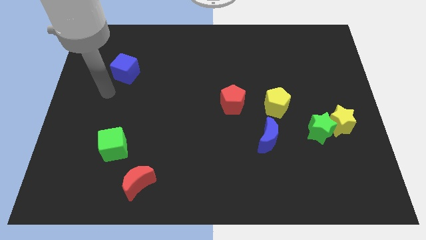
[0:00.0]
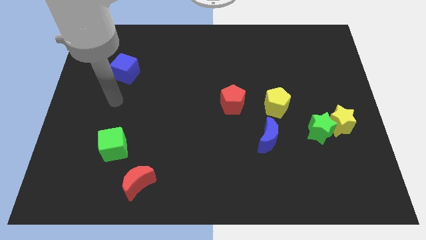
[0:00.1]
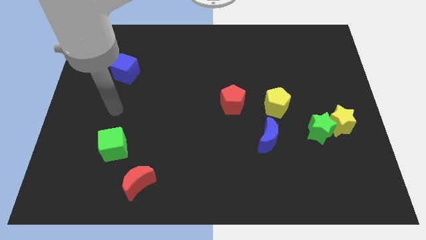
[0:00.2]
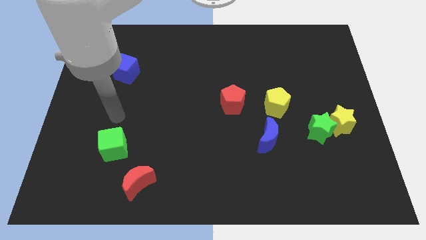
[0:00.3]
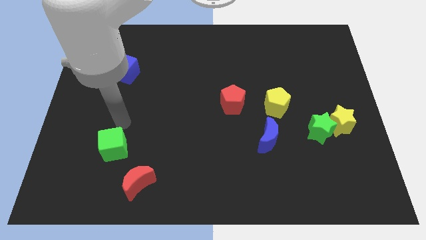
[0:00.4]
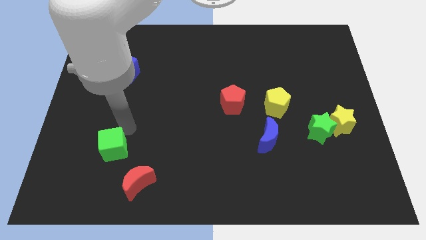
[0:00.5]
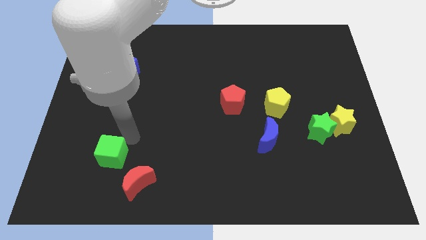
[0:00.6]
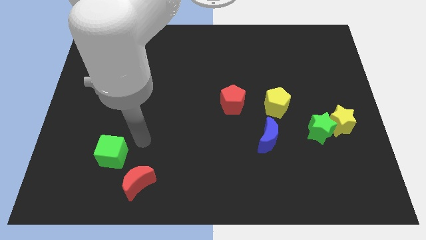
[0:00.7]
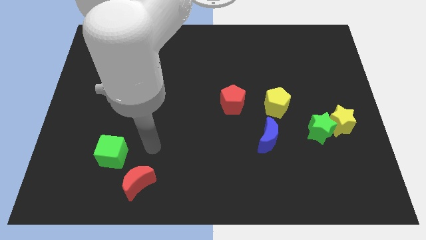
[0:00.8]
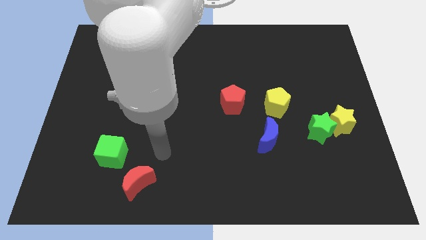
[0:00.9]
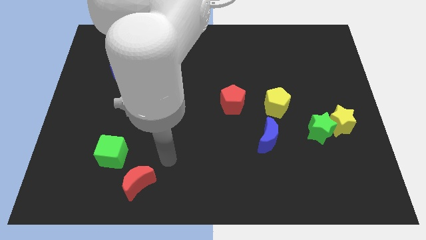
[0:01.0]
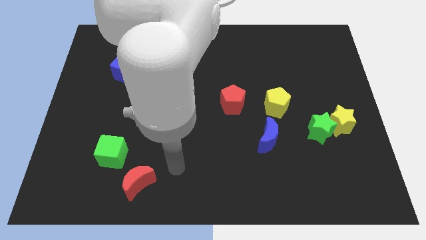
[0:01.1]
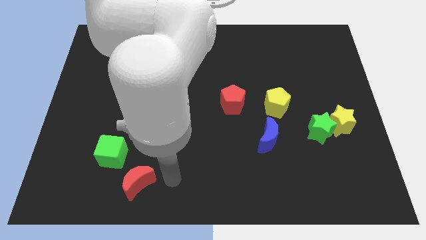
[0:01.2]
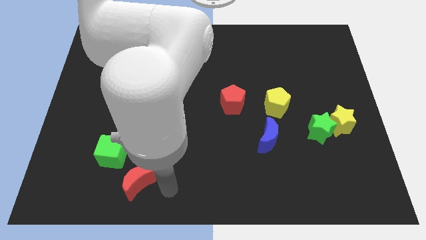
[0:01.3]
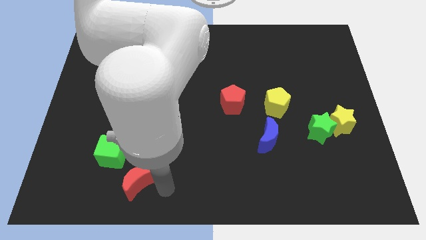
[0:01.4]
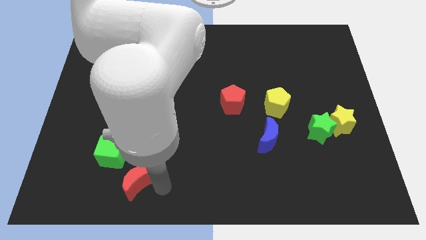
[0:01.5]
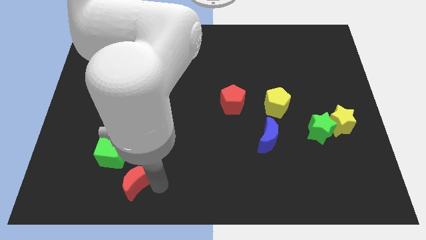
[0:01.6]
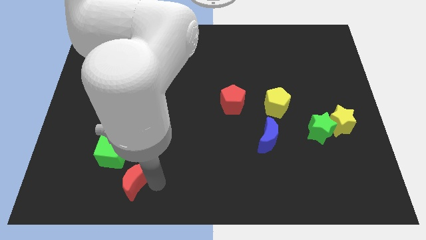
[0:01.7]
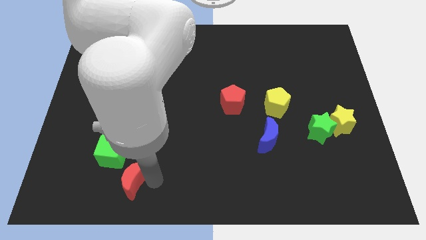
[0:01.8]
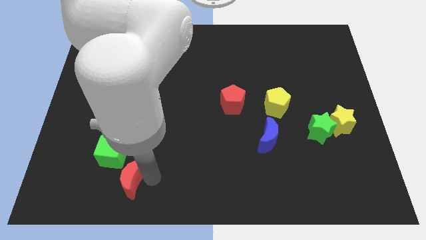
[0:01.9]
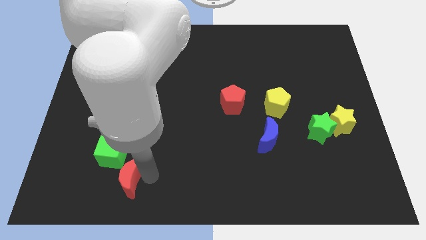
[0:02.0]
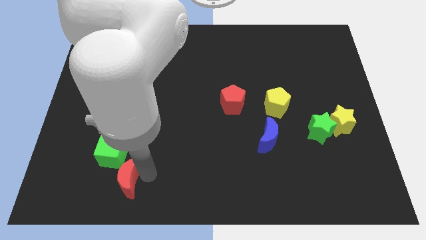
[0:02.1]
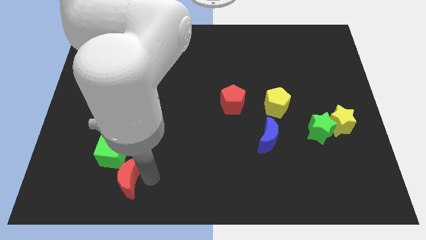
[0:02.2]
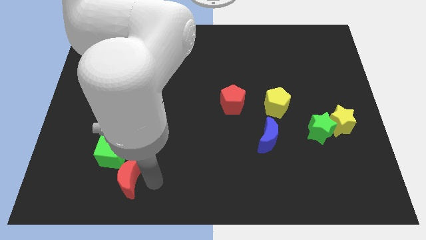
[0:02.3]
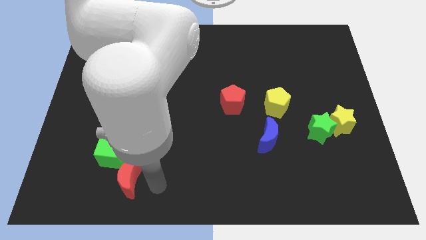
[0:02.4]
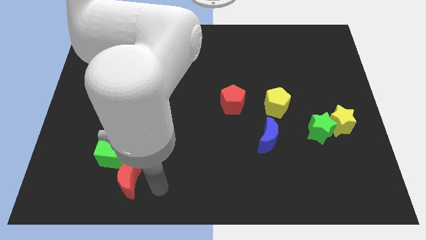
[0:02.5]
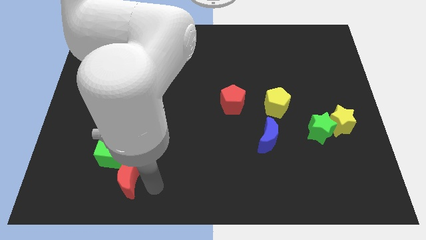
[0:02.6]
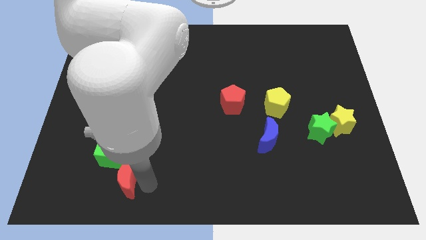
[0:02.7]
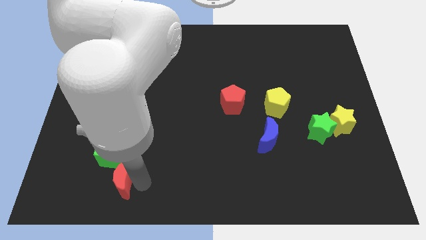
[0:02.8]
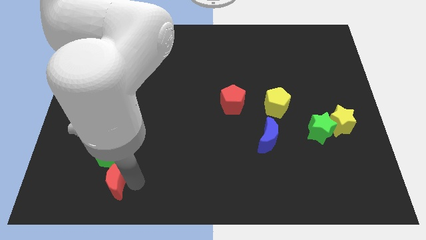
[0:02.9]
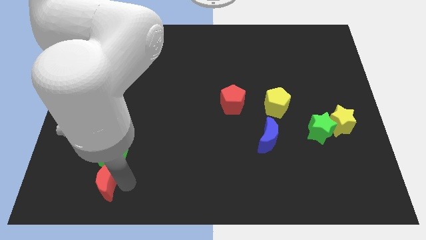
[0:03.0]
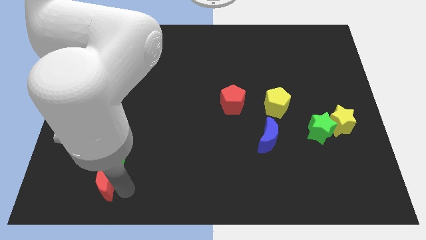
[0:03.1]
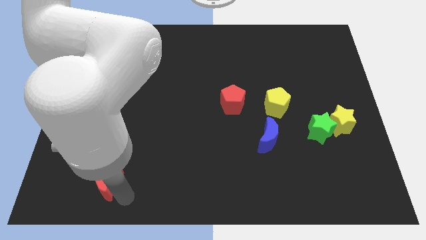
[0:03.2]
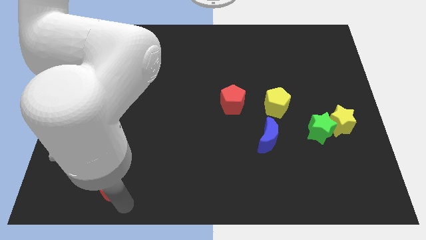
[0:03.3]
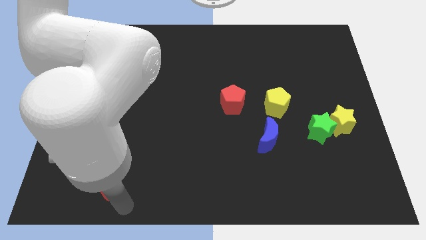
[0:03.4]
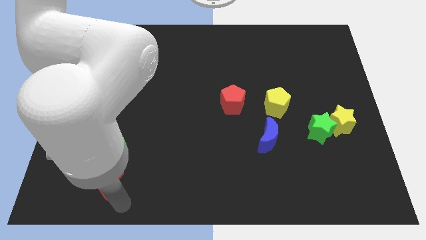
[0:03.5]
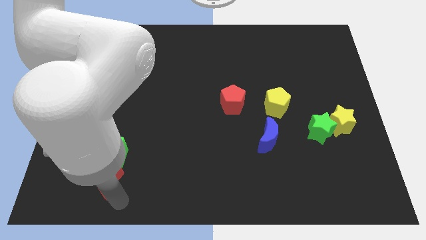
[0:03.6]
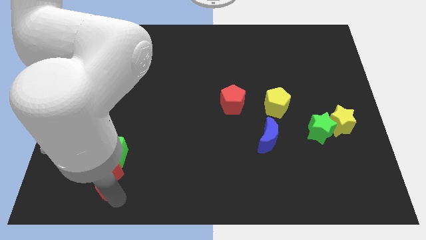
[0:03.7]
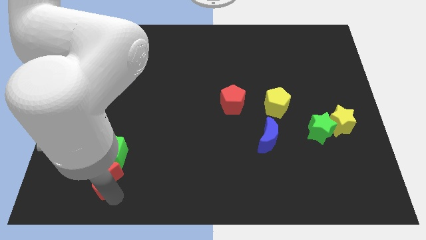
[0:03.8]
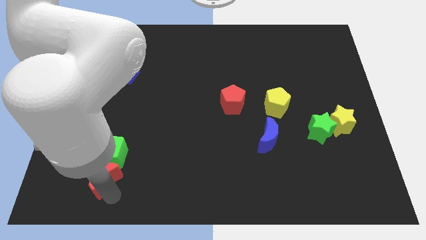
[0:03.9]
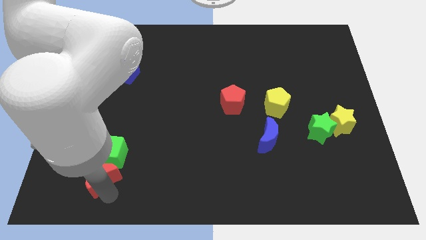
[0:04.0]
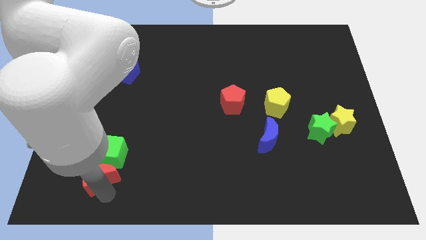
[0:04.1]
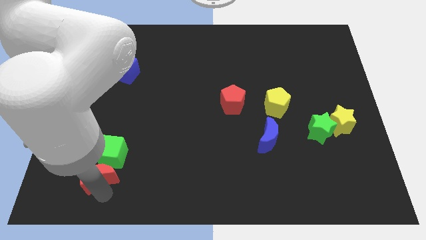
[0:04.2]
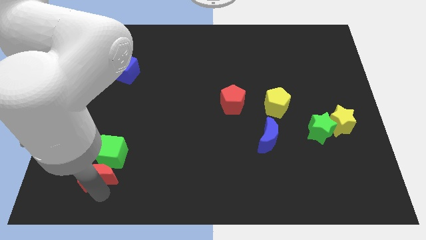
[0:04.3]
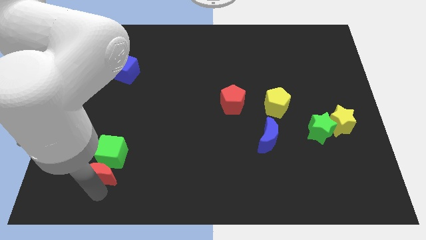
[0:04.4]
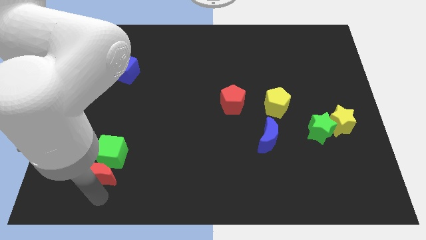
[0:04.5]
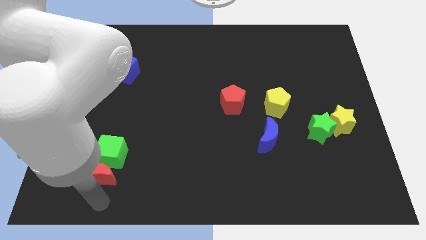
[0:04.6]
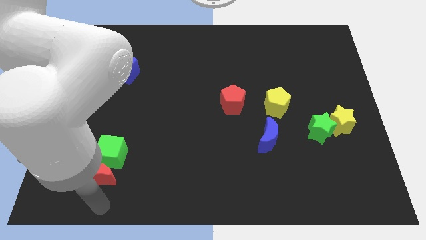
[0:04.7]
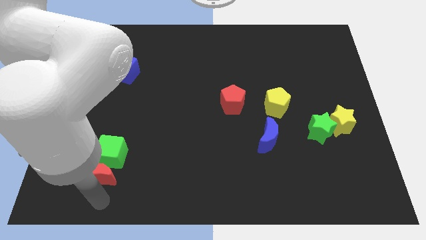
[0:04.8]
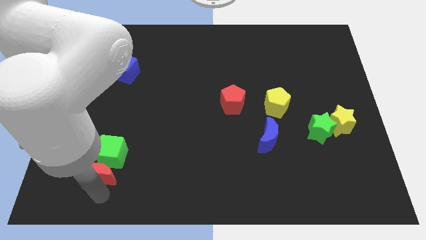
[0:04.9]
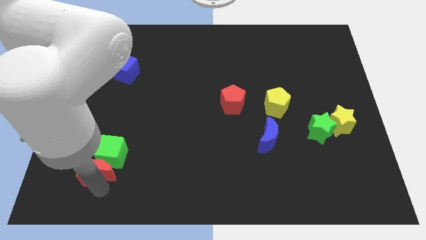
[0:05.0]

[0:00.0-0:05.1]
slightly push the red moon upwards and left

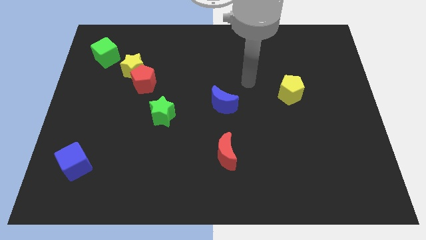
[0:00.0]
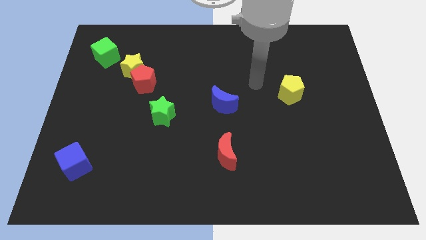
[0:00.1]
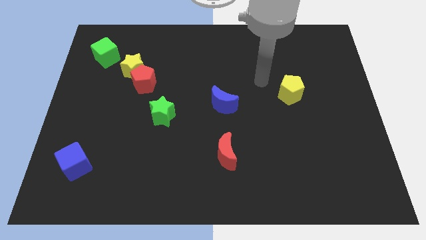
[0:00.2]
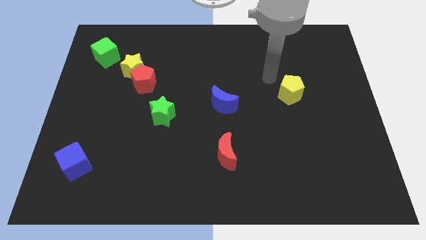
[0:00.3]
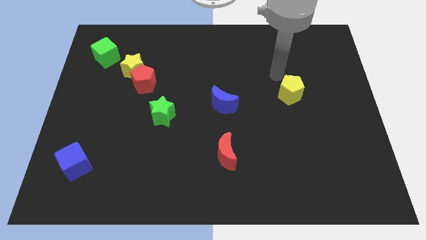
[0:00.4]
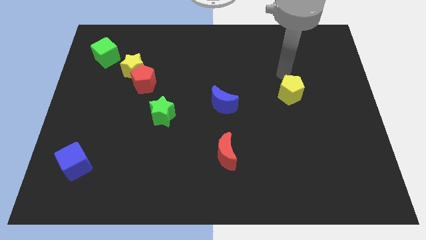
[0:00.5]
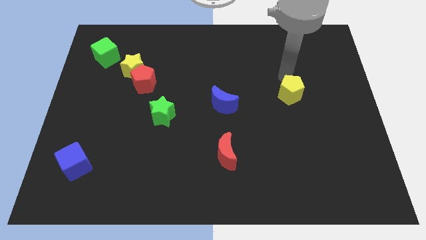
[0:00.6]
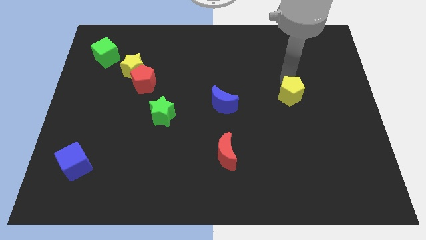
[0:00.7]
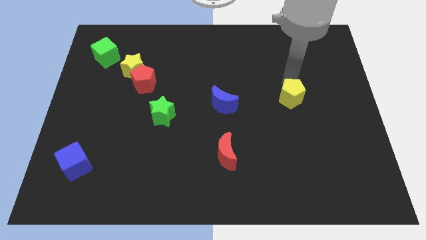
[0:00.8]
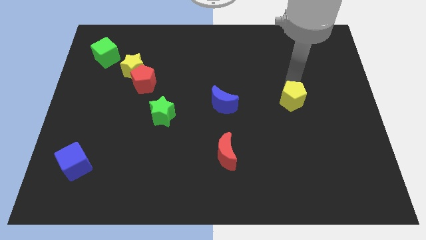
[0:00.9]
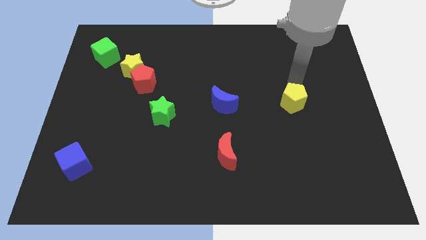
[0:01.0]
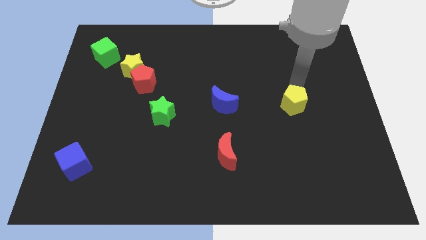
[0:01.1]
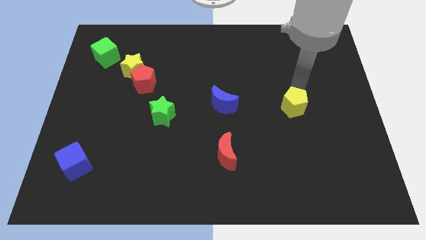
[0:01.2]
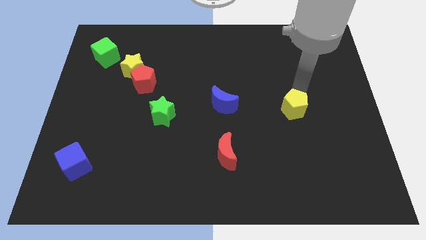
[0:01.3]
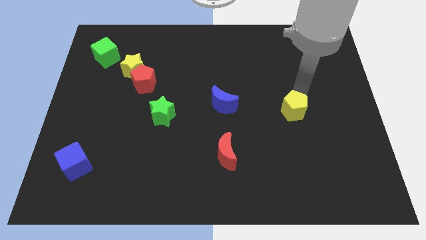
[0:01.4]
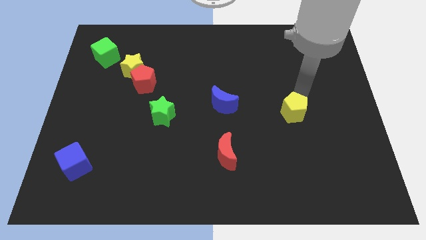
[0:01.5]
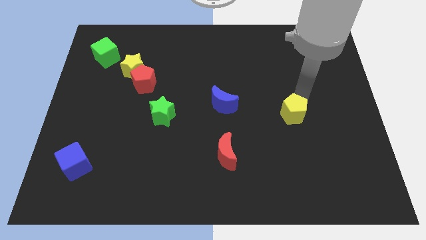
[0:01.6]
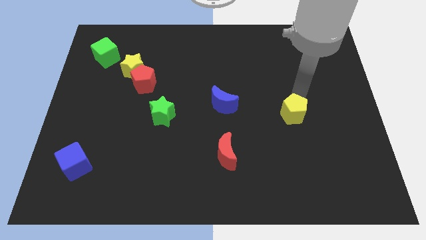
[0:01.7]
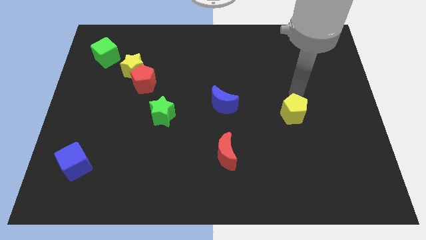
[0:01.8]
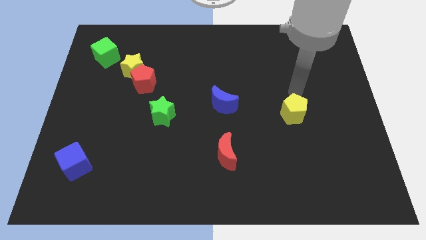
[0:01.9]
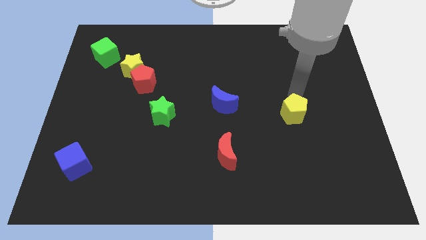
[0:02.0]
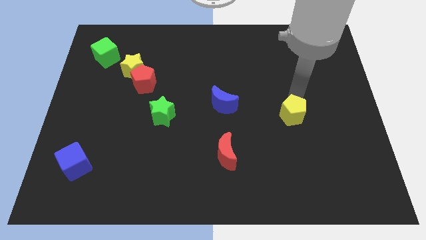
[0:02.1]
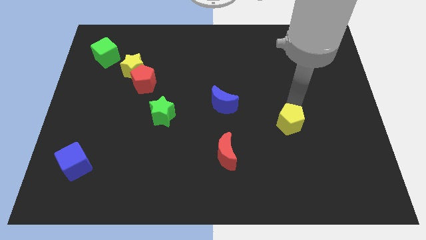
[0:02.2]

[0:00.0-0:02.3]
slide the yellow pentagon somewhat downwards

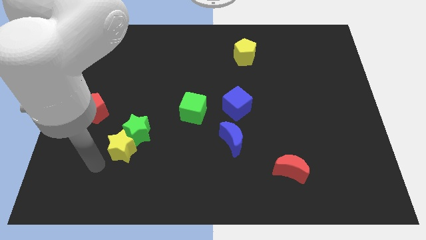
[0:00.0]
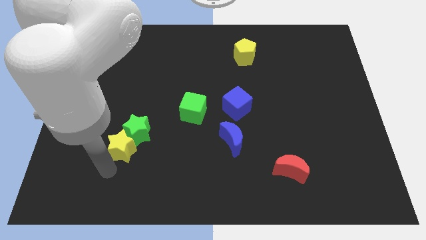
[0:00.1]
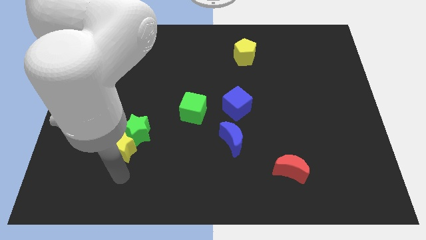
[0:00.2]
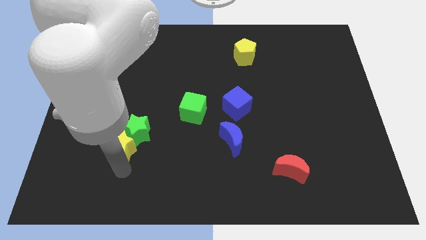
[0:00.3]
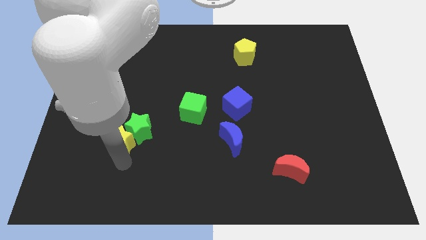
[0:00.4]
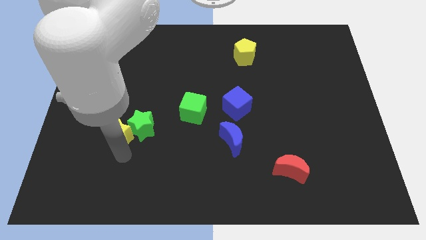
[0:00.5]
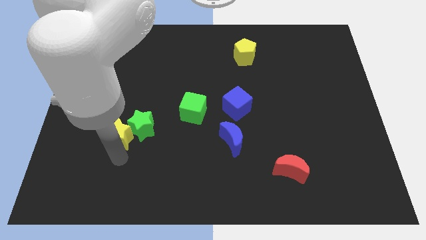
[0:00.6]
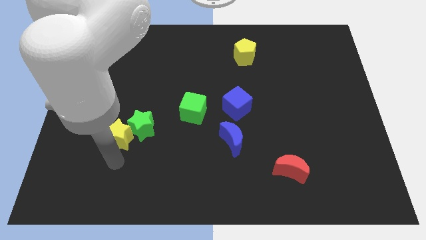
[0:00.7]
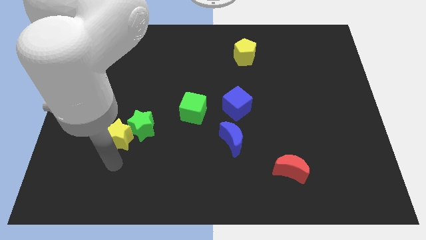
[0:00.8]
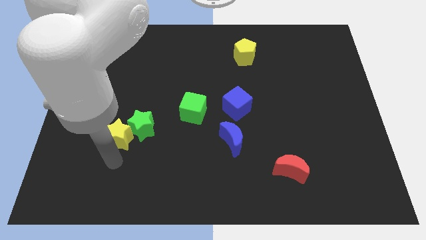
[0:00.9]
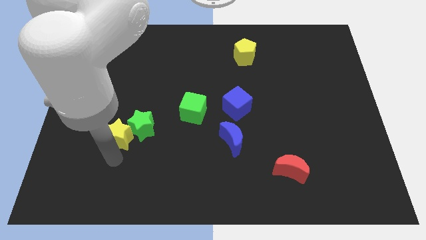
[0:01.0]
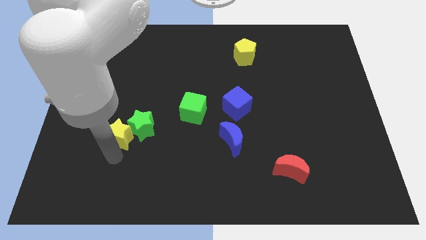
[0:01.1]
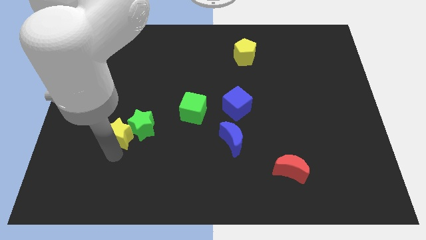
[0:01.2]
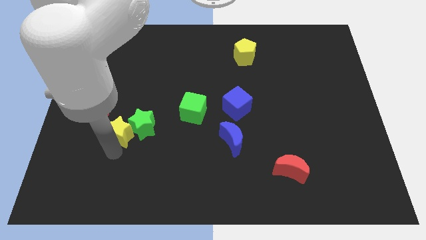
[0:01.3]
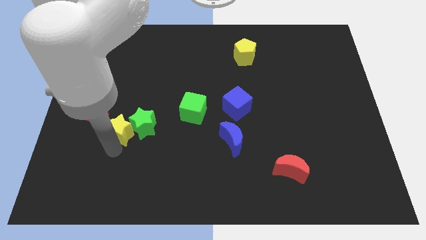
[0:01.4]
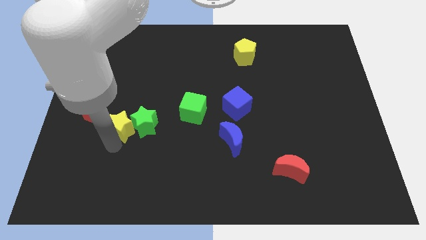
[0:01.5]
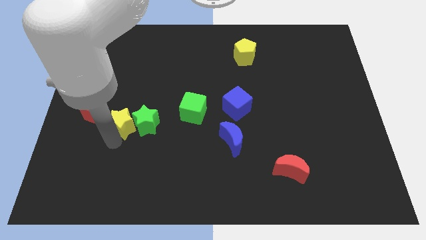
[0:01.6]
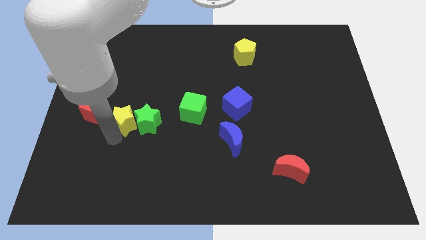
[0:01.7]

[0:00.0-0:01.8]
slide the yellow star up a little bit
